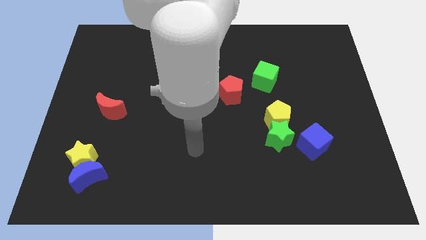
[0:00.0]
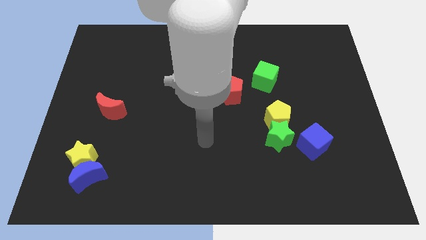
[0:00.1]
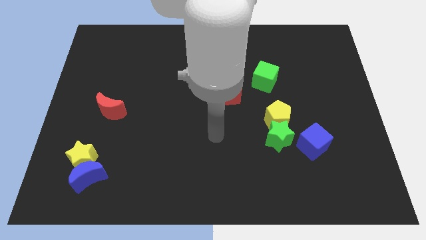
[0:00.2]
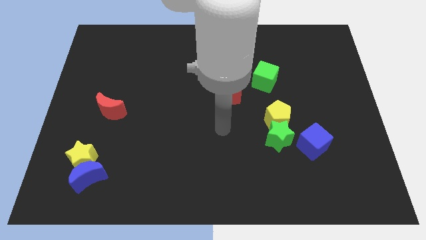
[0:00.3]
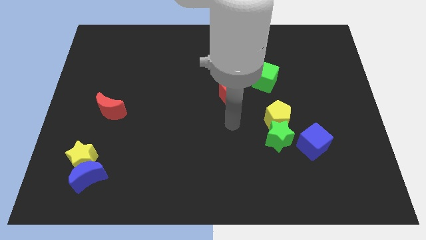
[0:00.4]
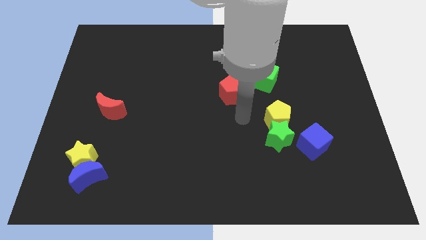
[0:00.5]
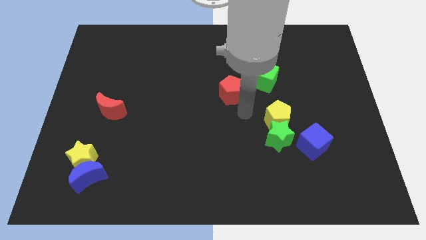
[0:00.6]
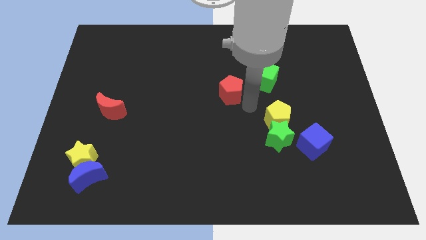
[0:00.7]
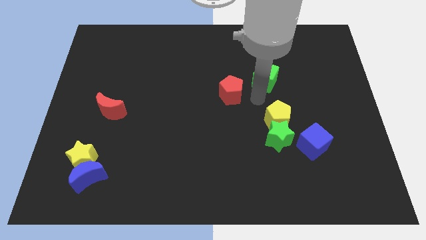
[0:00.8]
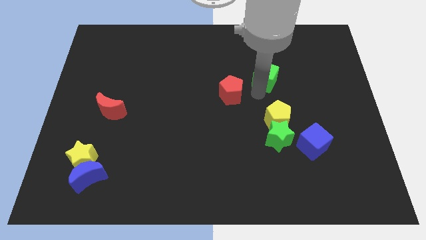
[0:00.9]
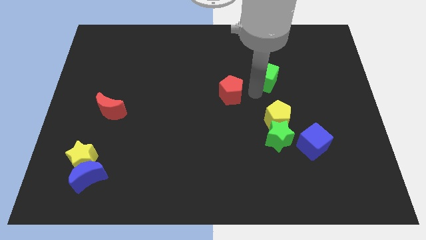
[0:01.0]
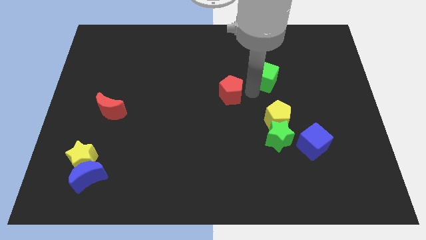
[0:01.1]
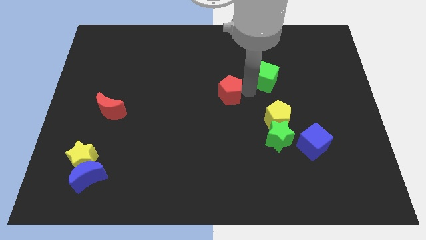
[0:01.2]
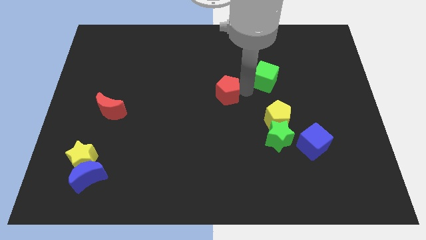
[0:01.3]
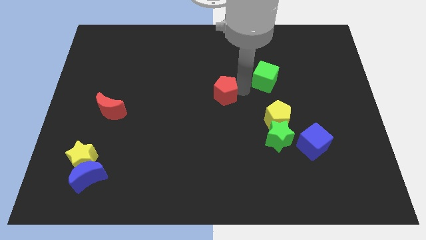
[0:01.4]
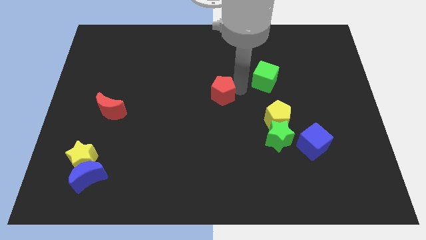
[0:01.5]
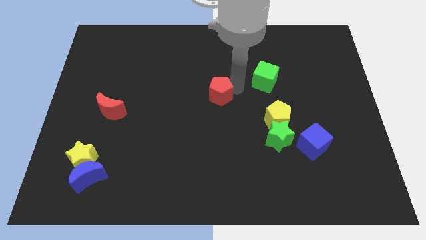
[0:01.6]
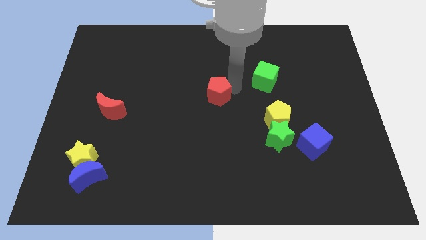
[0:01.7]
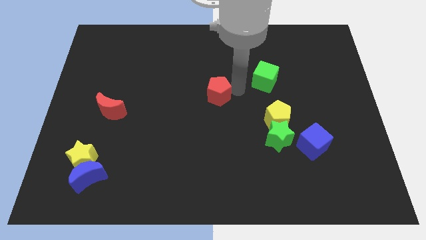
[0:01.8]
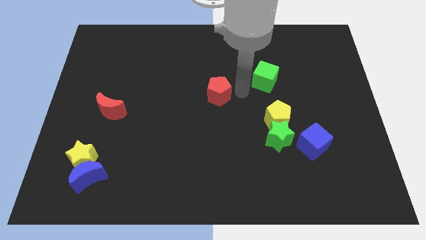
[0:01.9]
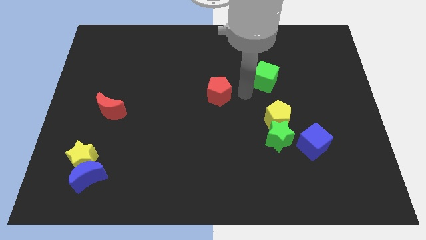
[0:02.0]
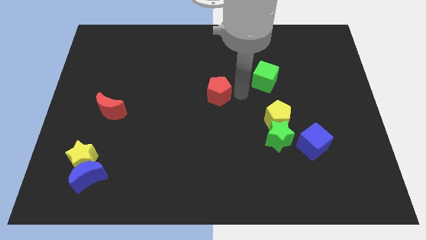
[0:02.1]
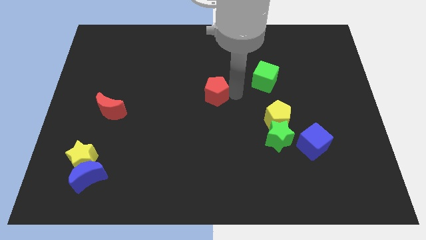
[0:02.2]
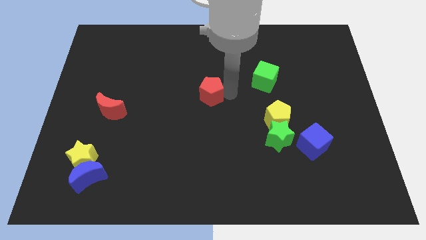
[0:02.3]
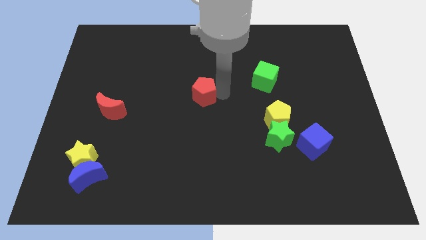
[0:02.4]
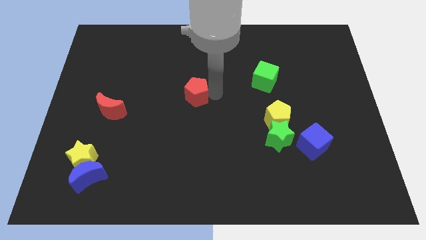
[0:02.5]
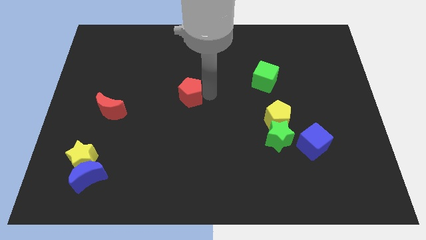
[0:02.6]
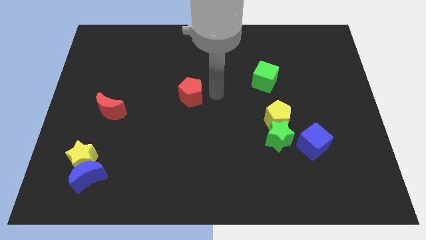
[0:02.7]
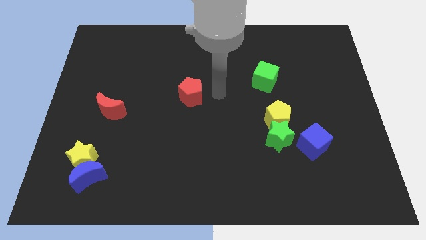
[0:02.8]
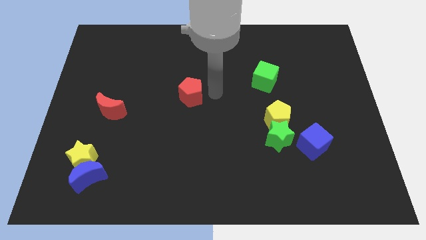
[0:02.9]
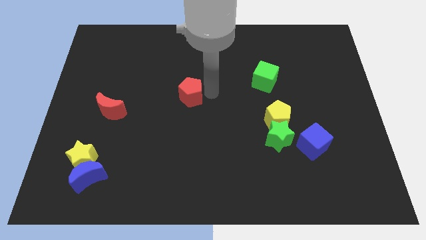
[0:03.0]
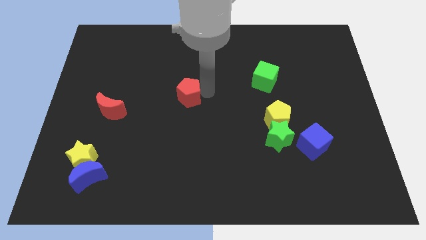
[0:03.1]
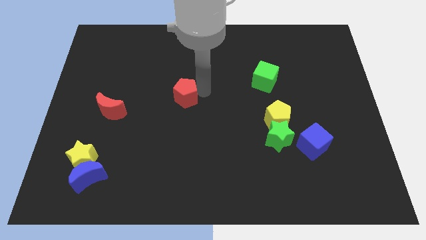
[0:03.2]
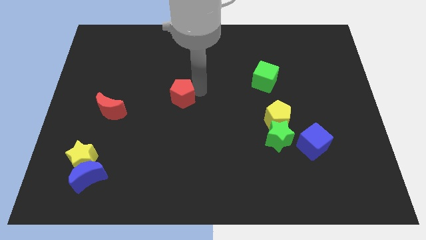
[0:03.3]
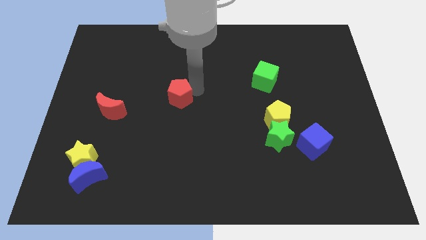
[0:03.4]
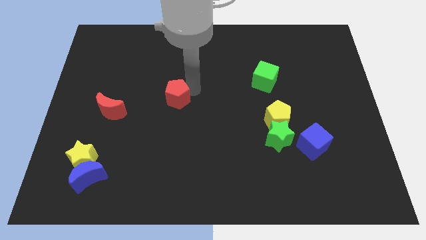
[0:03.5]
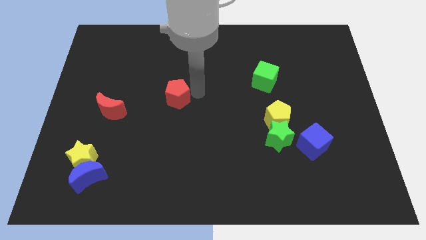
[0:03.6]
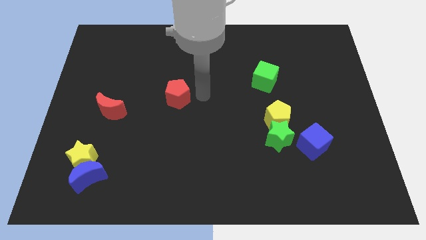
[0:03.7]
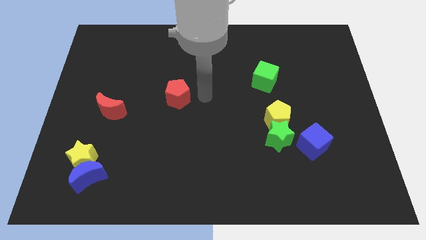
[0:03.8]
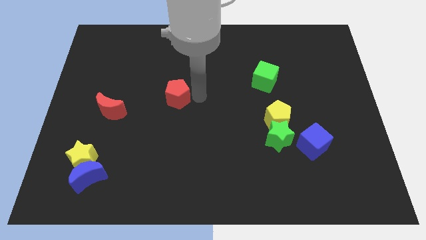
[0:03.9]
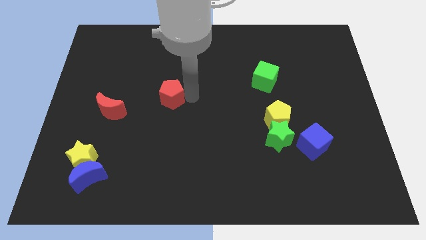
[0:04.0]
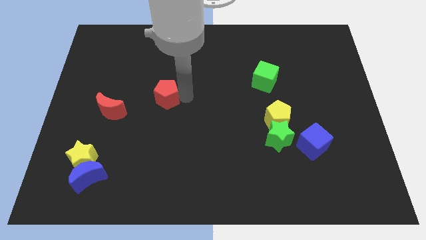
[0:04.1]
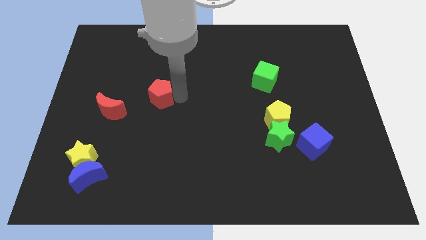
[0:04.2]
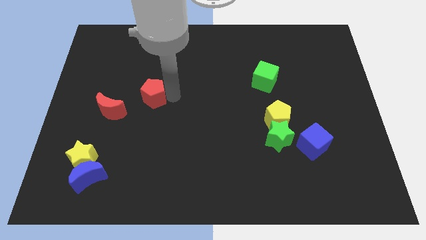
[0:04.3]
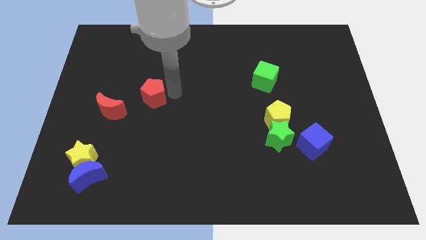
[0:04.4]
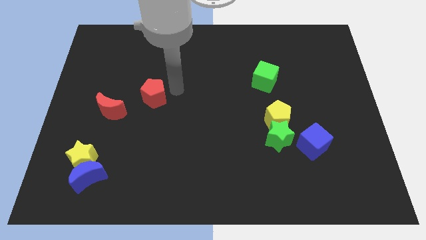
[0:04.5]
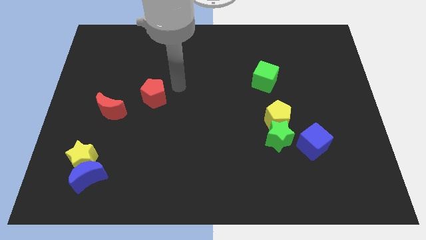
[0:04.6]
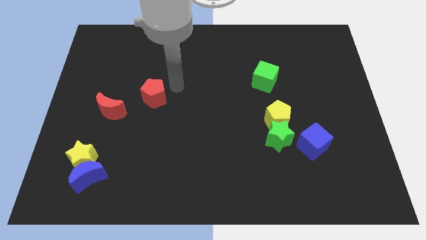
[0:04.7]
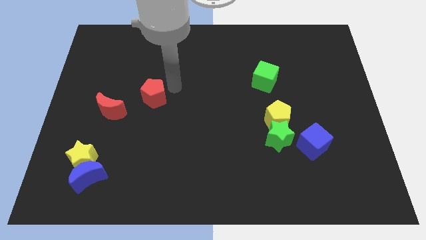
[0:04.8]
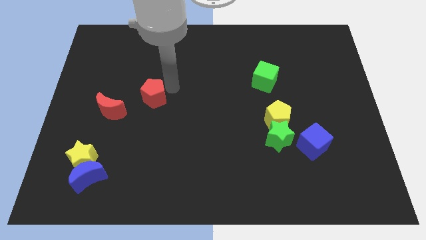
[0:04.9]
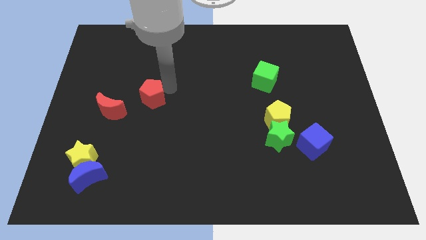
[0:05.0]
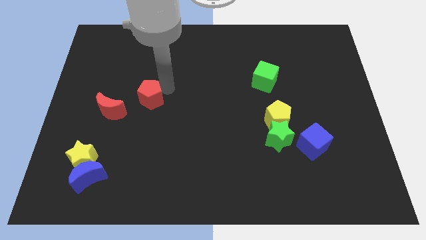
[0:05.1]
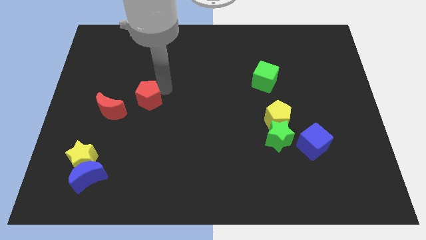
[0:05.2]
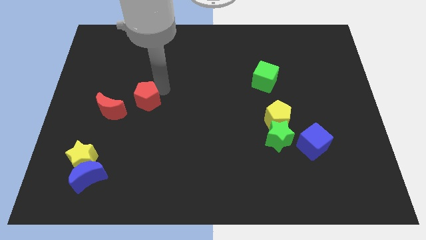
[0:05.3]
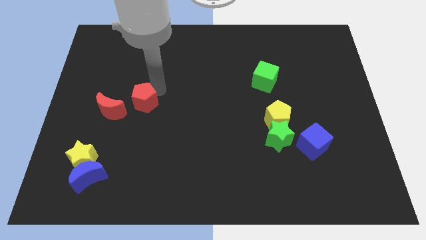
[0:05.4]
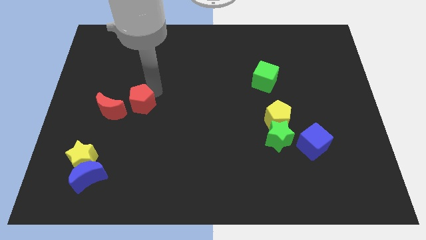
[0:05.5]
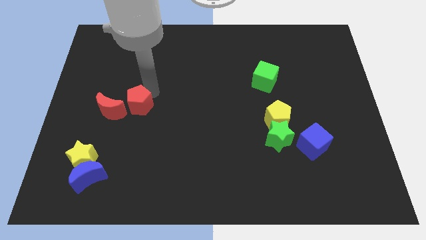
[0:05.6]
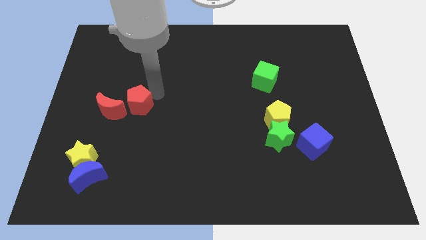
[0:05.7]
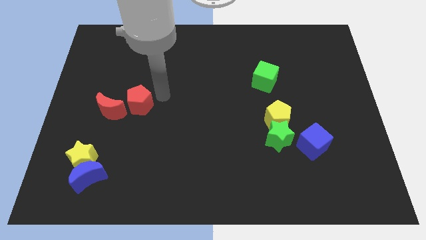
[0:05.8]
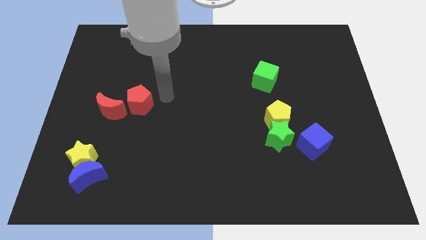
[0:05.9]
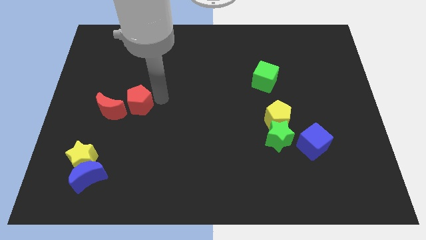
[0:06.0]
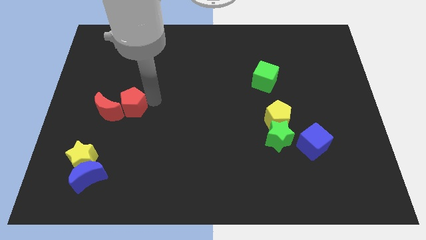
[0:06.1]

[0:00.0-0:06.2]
move the red pentagon towards the red moon

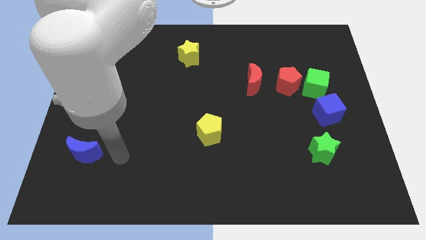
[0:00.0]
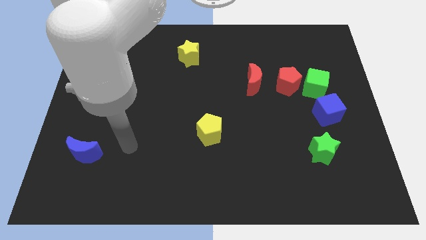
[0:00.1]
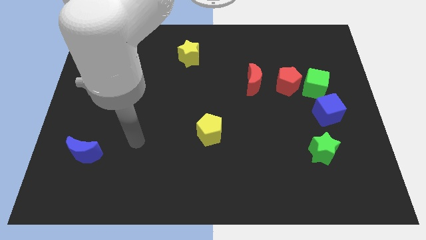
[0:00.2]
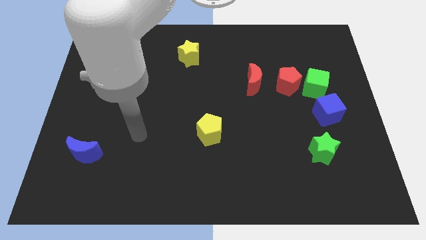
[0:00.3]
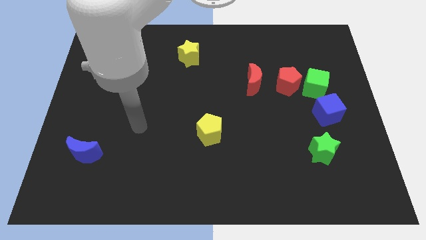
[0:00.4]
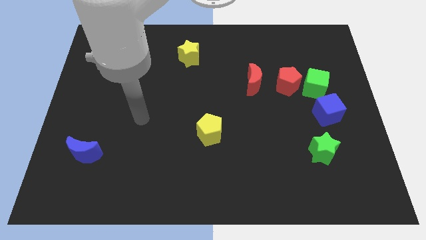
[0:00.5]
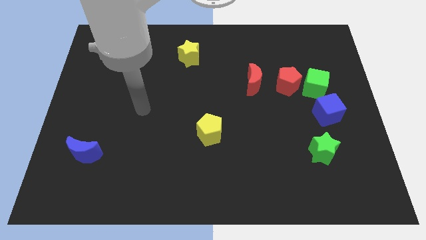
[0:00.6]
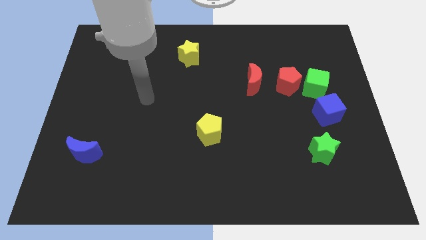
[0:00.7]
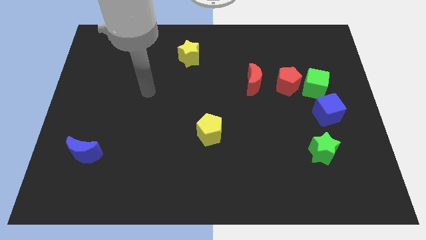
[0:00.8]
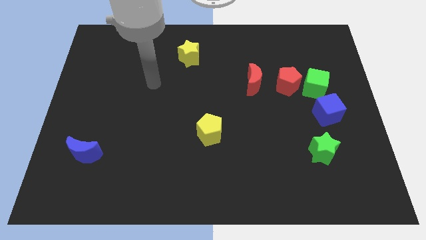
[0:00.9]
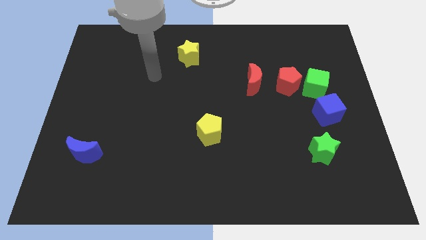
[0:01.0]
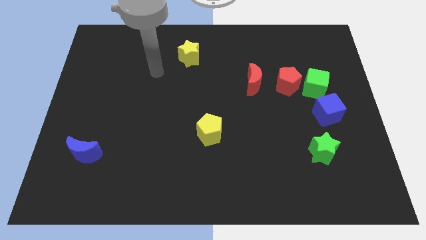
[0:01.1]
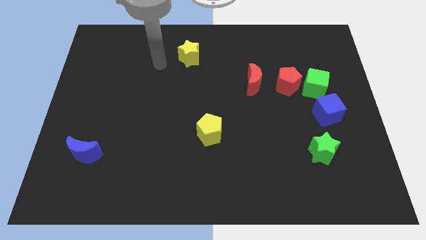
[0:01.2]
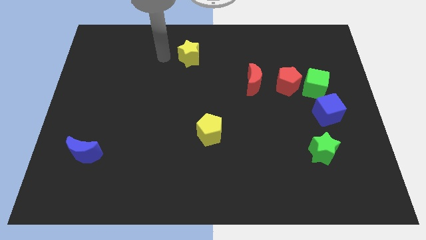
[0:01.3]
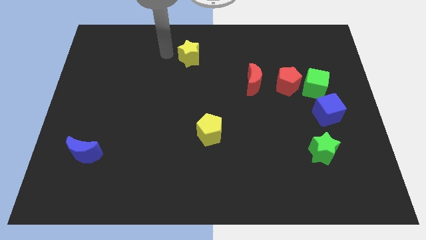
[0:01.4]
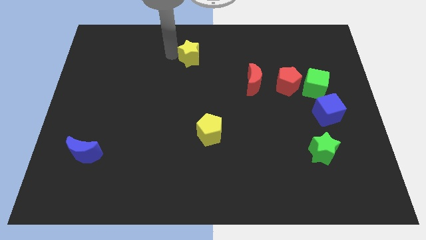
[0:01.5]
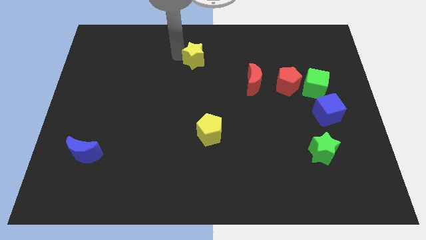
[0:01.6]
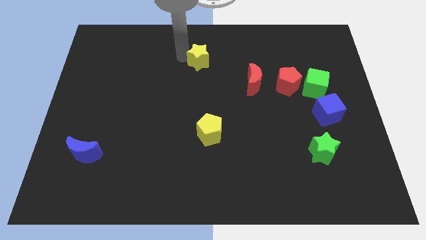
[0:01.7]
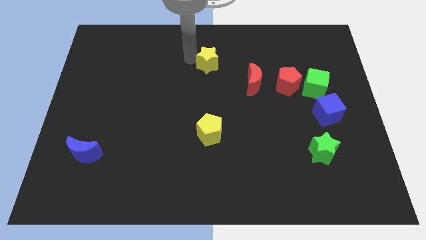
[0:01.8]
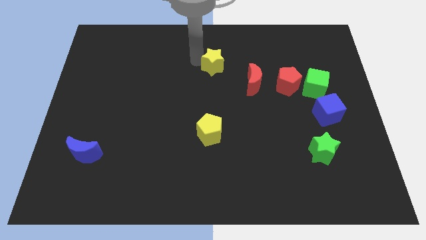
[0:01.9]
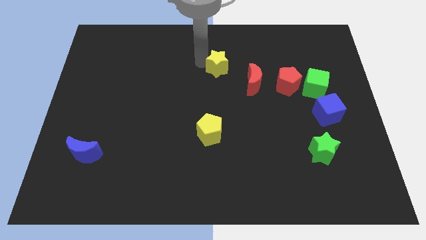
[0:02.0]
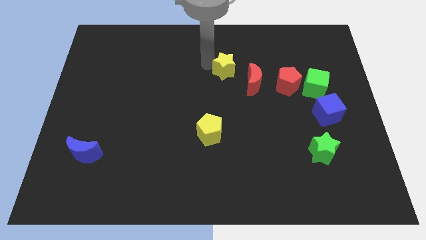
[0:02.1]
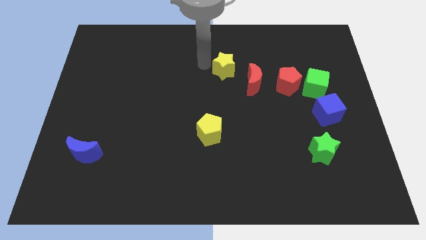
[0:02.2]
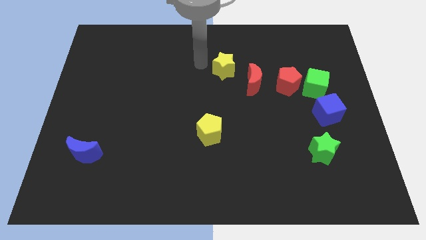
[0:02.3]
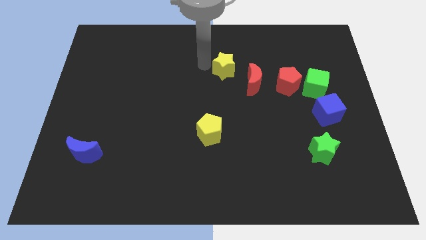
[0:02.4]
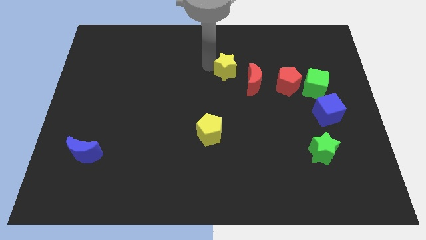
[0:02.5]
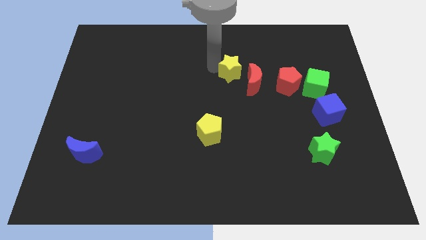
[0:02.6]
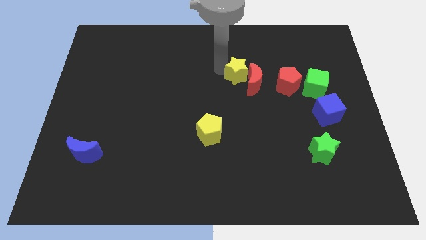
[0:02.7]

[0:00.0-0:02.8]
slide the yellow star close to the red moon
